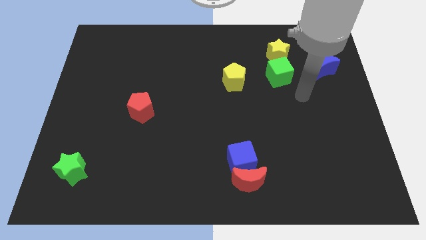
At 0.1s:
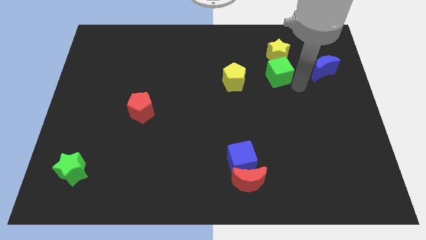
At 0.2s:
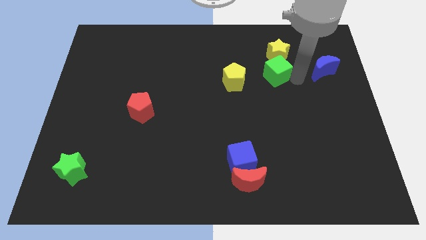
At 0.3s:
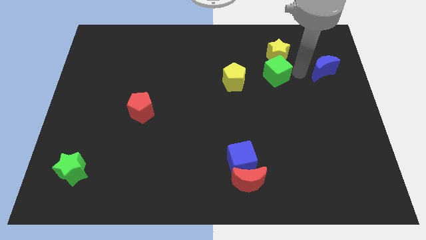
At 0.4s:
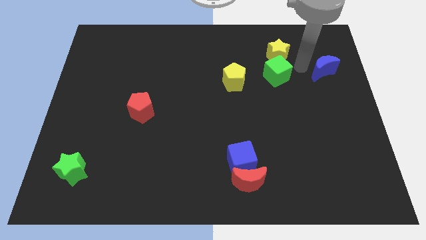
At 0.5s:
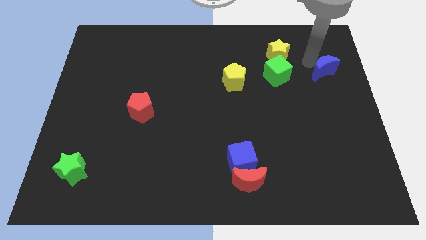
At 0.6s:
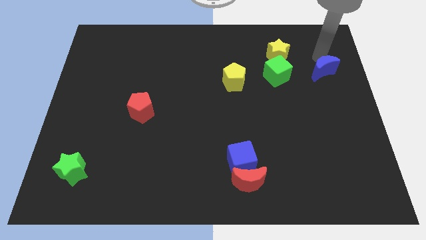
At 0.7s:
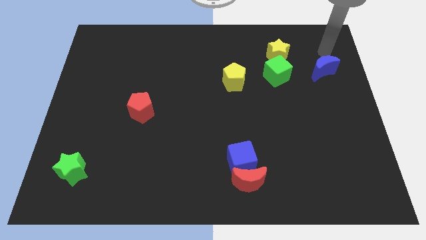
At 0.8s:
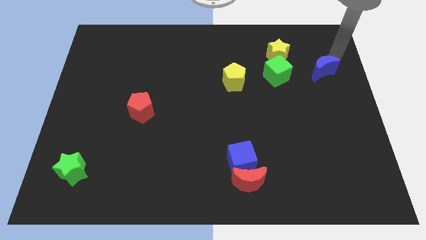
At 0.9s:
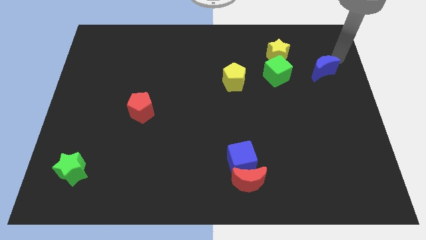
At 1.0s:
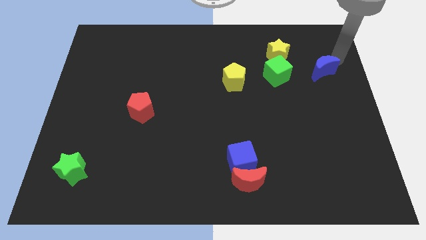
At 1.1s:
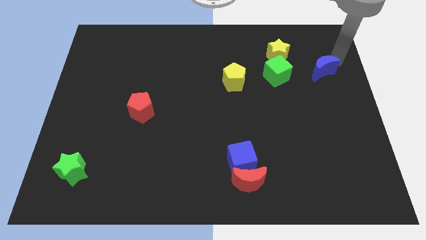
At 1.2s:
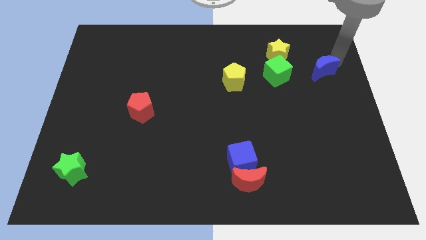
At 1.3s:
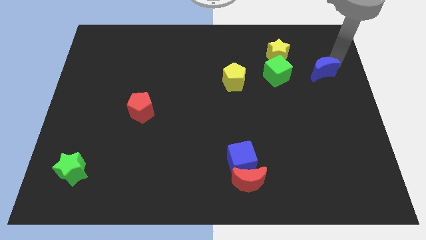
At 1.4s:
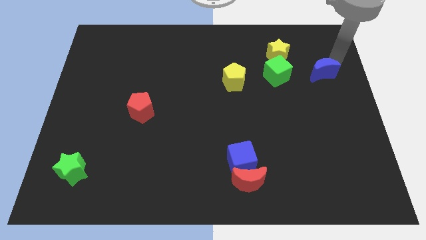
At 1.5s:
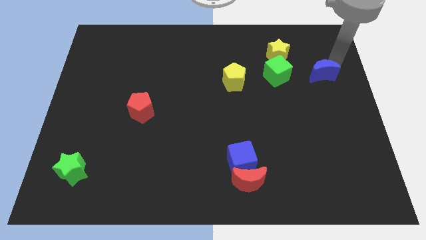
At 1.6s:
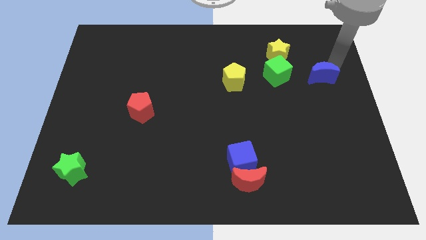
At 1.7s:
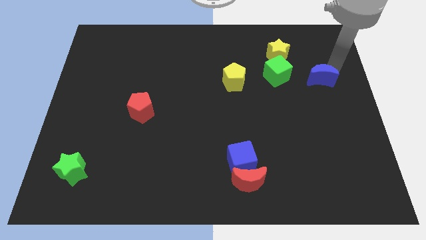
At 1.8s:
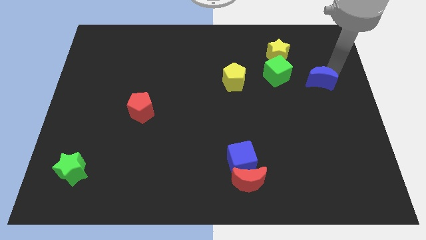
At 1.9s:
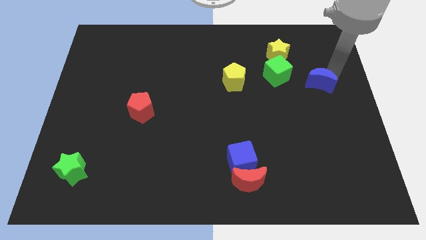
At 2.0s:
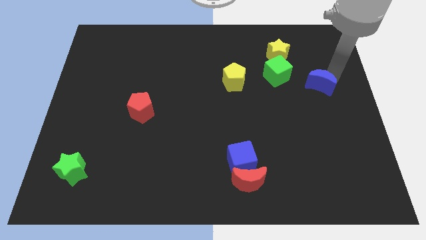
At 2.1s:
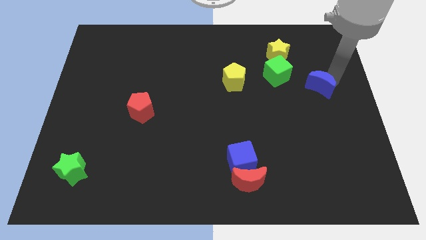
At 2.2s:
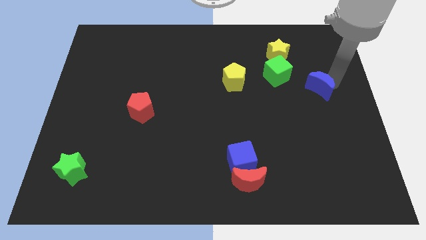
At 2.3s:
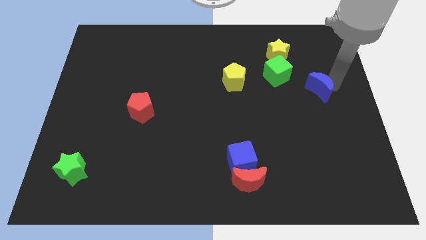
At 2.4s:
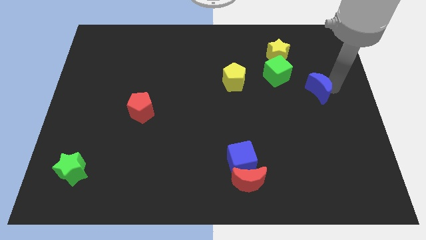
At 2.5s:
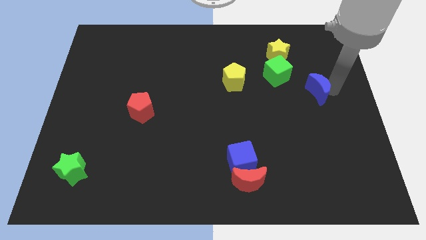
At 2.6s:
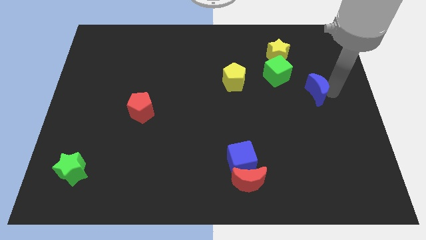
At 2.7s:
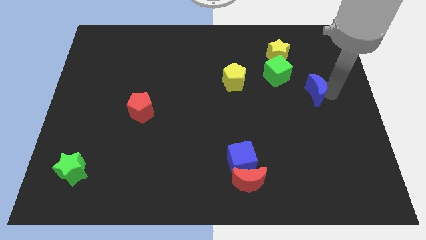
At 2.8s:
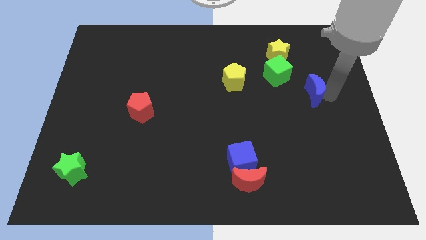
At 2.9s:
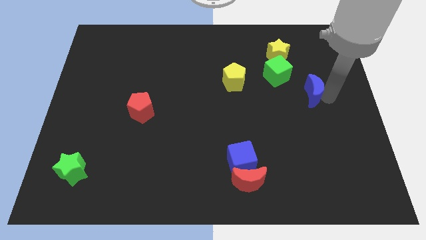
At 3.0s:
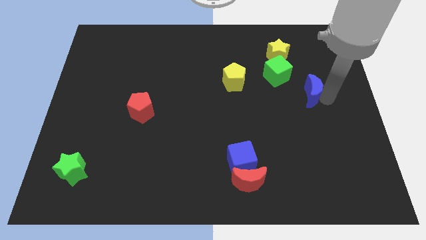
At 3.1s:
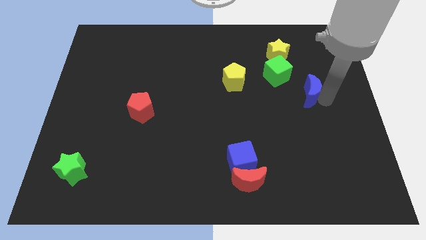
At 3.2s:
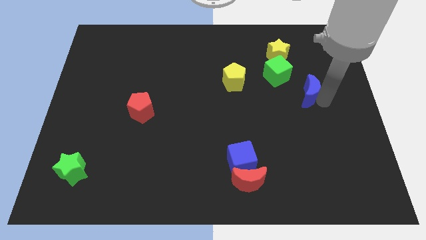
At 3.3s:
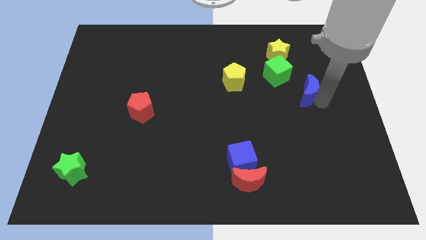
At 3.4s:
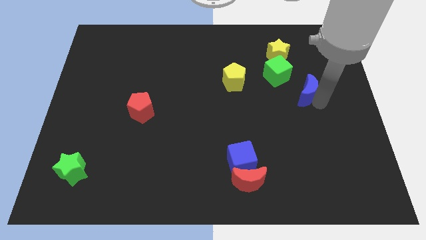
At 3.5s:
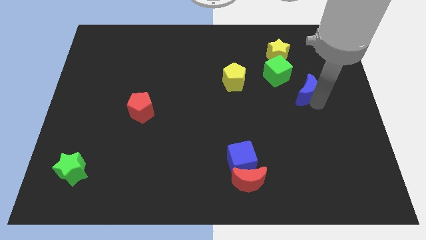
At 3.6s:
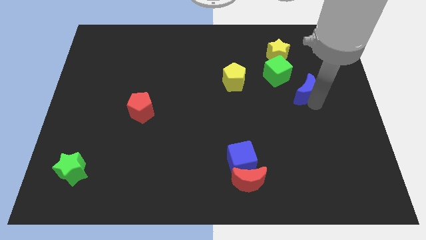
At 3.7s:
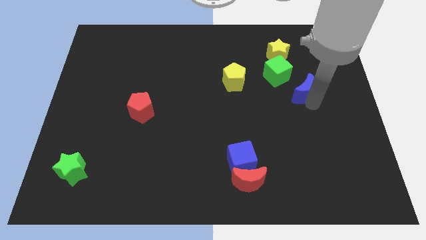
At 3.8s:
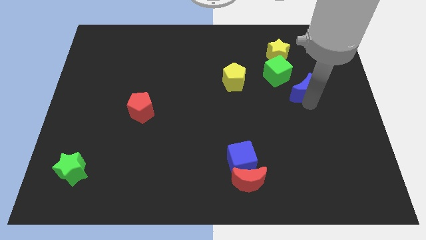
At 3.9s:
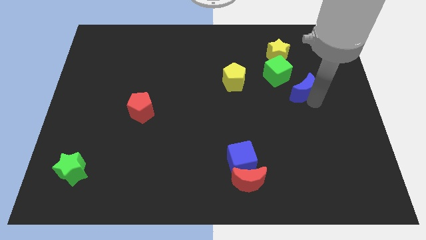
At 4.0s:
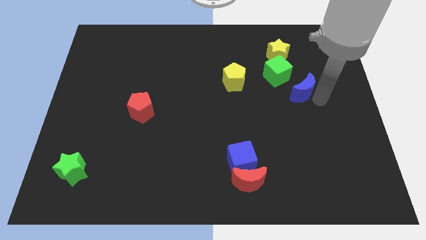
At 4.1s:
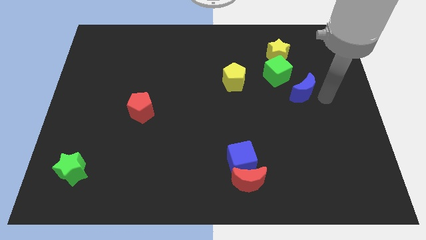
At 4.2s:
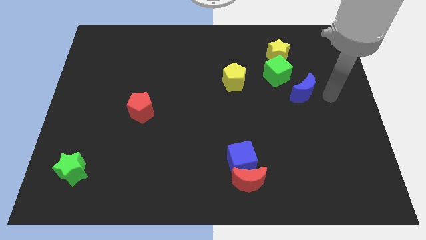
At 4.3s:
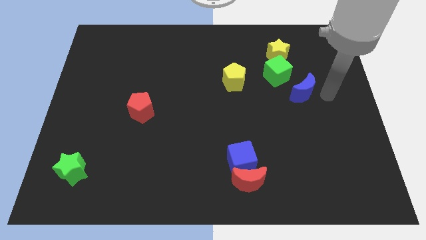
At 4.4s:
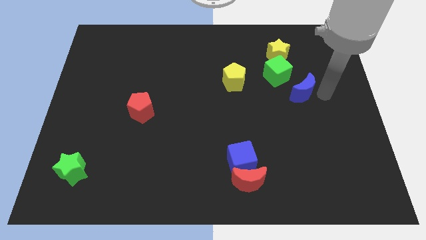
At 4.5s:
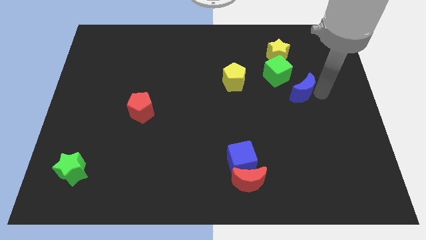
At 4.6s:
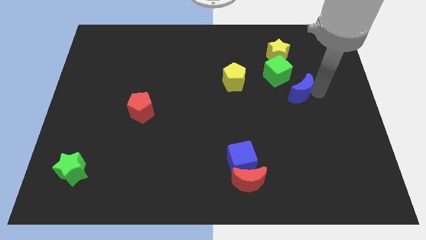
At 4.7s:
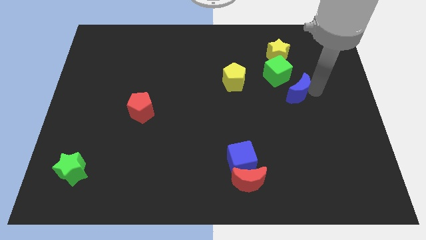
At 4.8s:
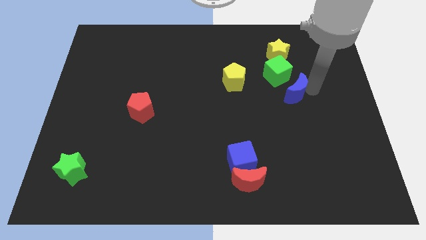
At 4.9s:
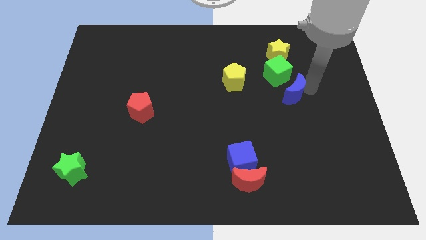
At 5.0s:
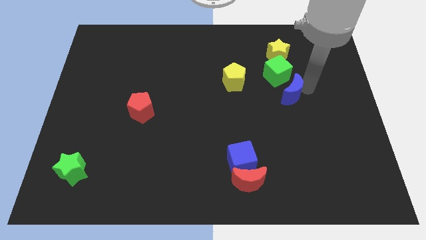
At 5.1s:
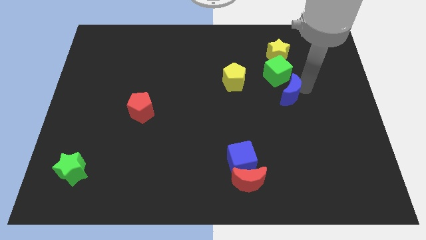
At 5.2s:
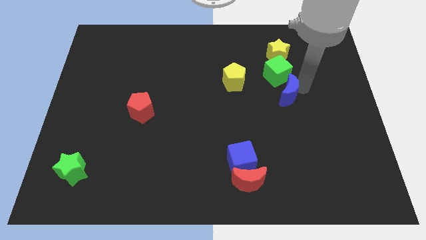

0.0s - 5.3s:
slightly push the blue moon left

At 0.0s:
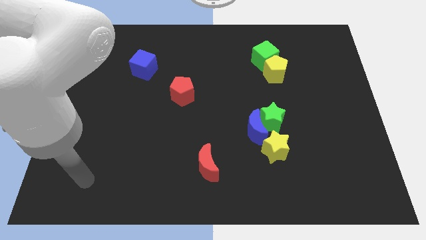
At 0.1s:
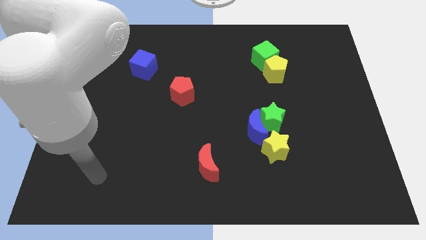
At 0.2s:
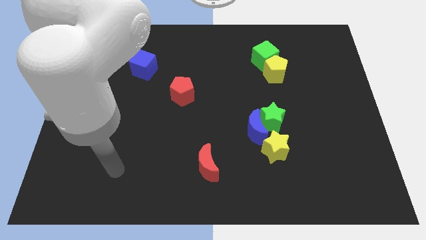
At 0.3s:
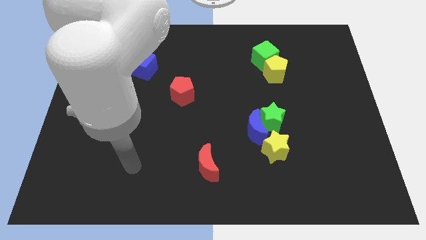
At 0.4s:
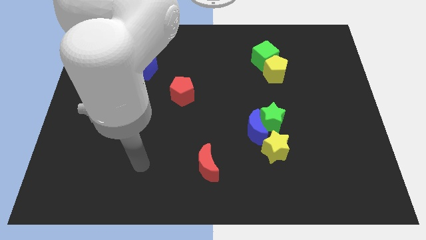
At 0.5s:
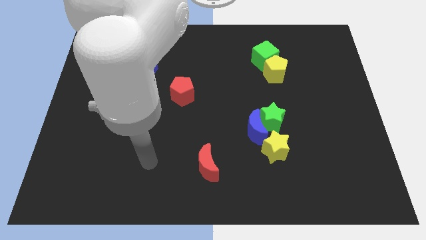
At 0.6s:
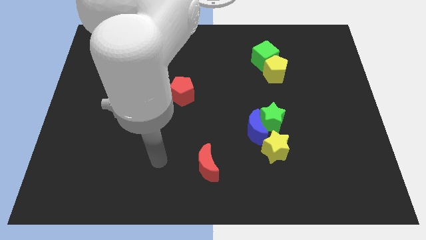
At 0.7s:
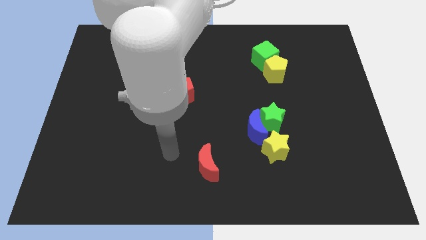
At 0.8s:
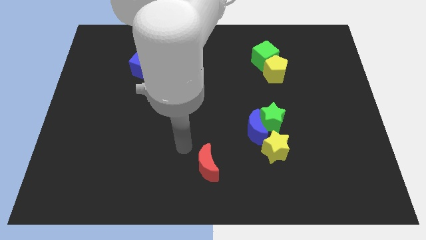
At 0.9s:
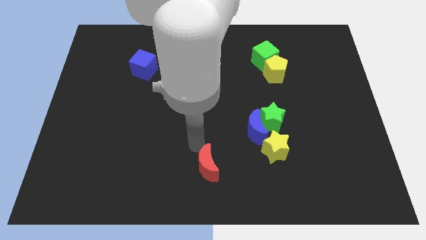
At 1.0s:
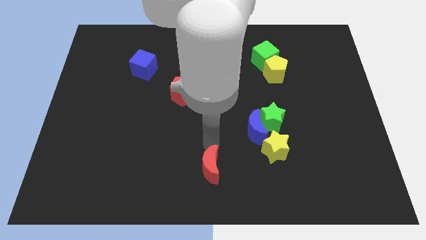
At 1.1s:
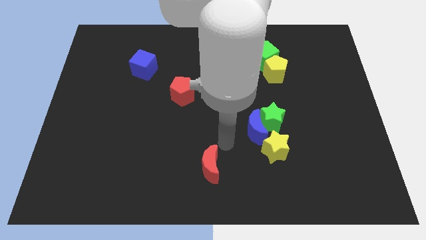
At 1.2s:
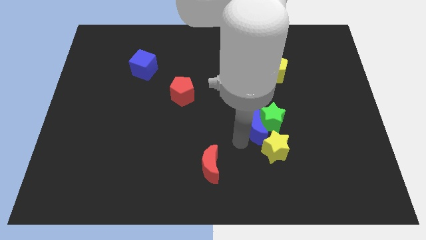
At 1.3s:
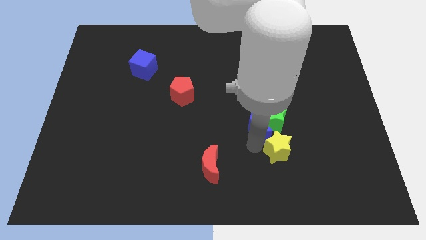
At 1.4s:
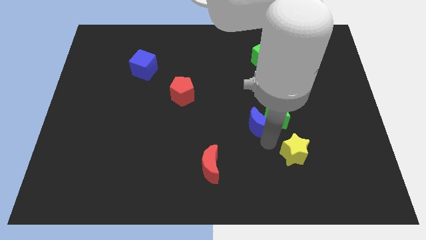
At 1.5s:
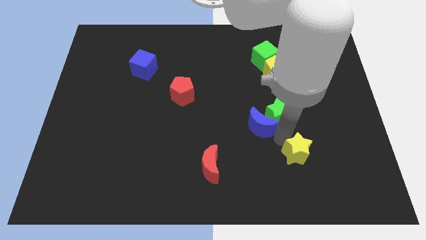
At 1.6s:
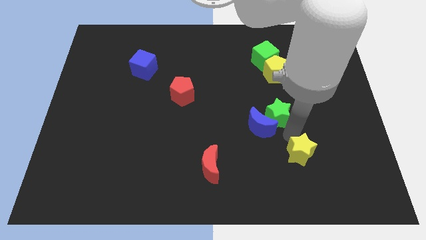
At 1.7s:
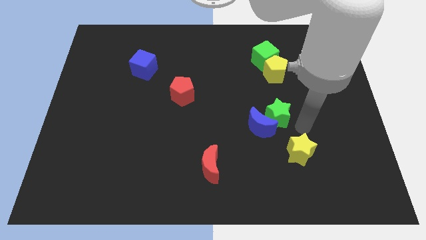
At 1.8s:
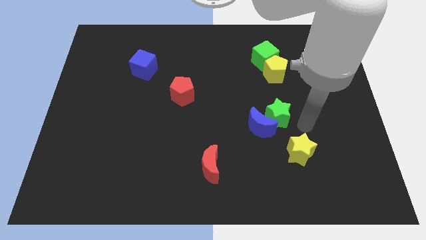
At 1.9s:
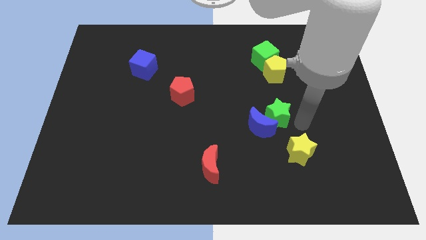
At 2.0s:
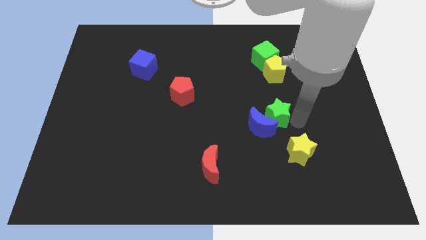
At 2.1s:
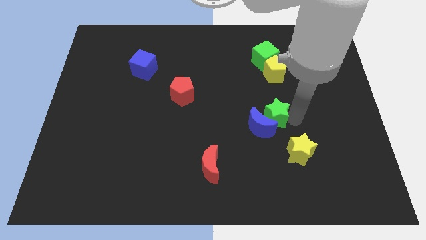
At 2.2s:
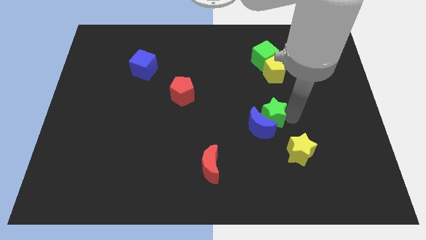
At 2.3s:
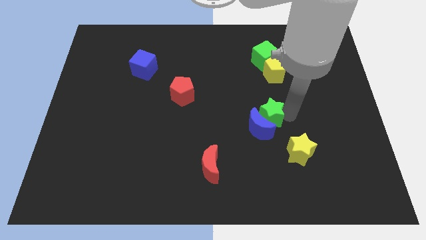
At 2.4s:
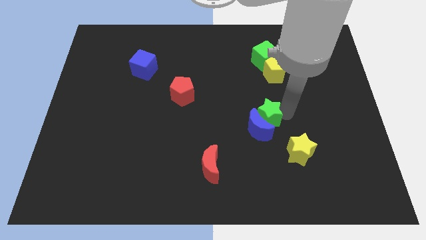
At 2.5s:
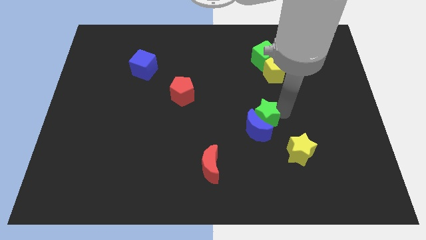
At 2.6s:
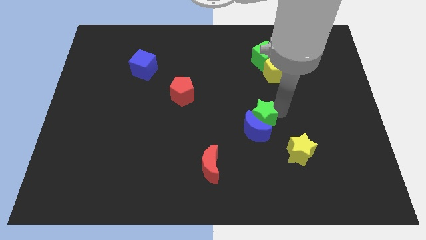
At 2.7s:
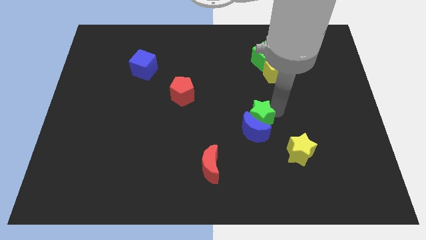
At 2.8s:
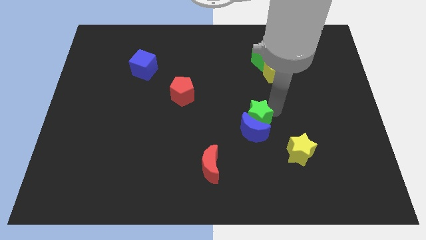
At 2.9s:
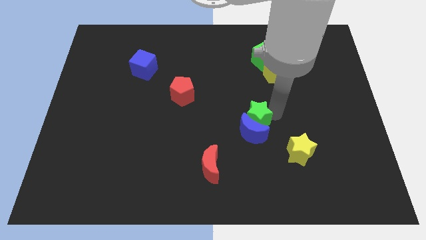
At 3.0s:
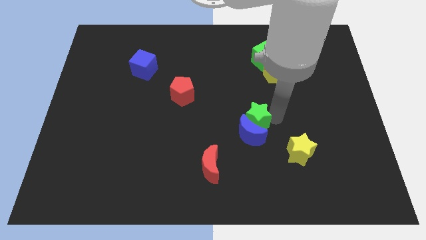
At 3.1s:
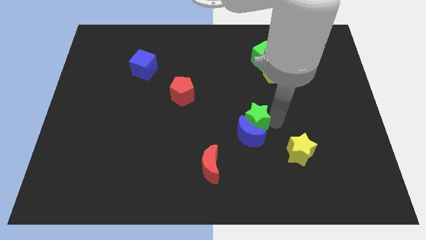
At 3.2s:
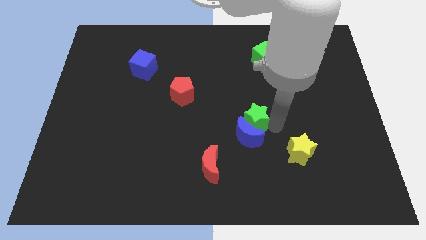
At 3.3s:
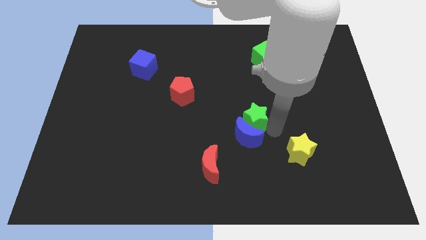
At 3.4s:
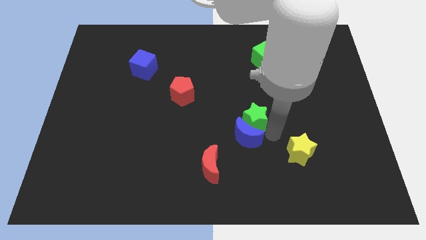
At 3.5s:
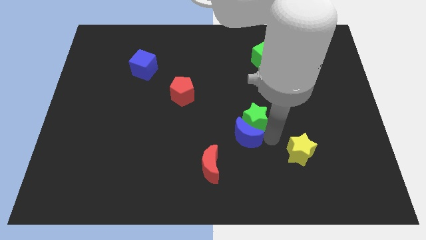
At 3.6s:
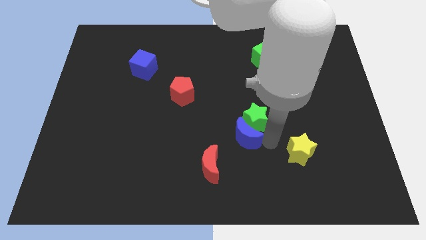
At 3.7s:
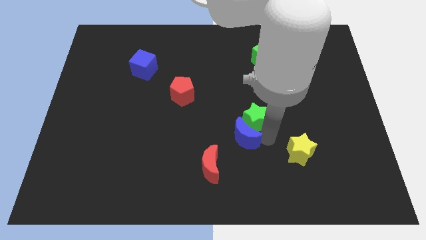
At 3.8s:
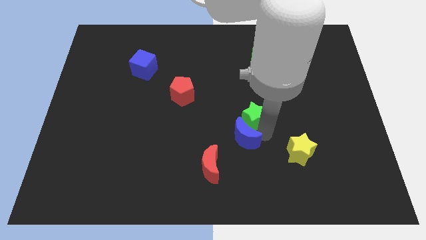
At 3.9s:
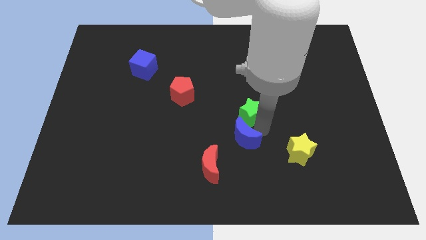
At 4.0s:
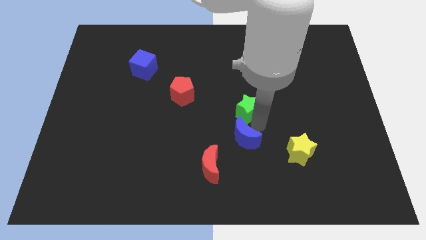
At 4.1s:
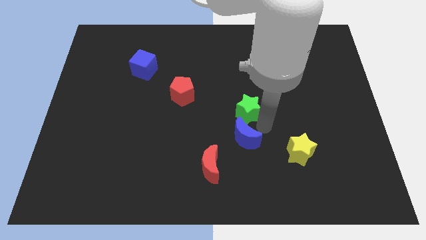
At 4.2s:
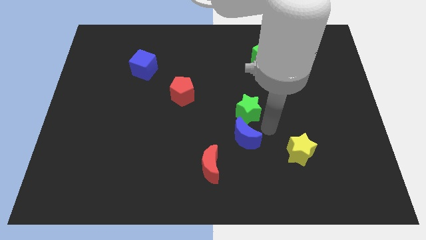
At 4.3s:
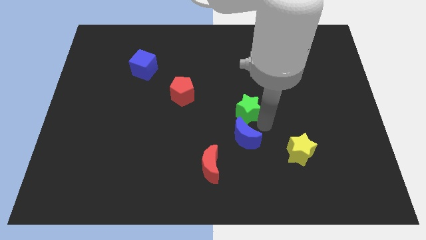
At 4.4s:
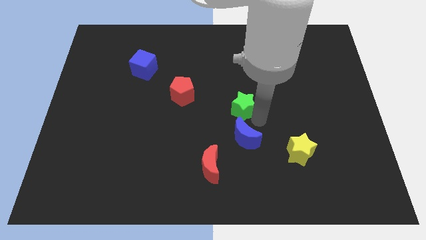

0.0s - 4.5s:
slightly push the green star up and to the left
